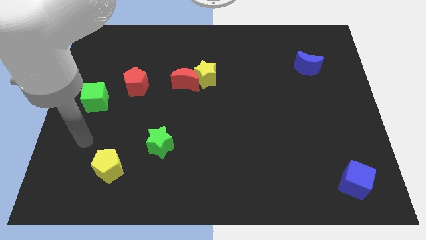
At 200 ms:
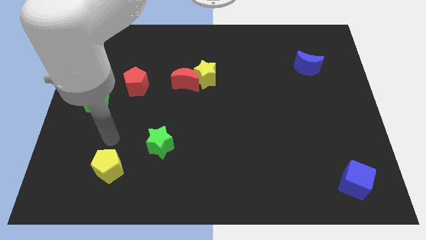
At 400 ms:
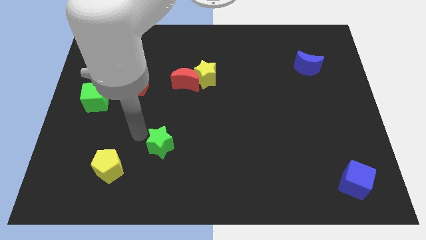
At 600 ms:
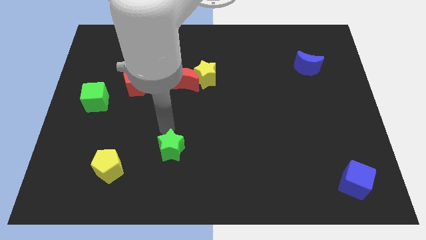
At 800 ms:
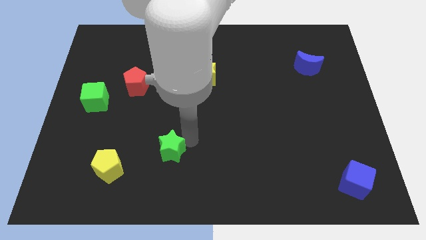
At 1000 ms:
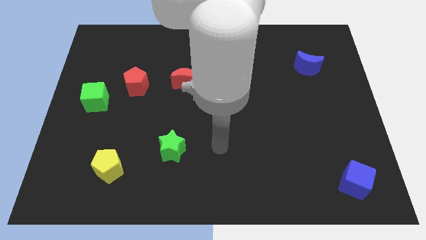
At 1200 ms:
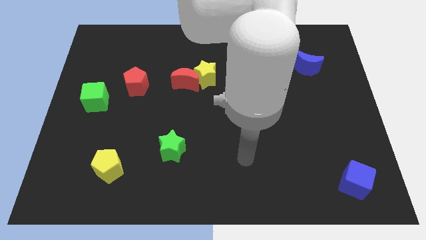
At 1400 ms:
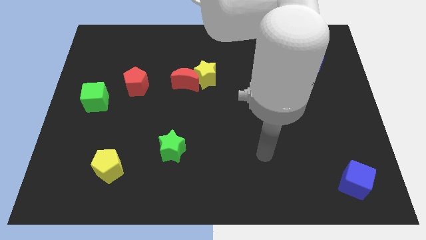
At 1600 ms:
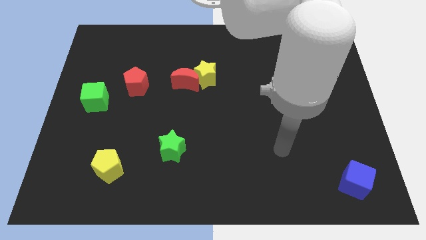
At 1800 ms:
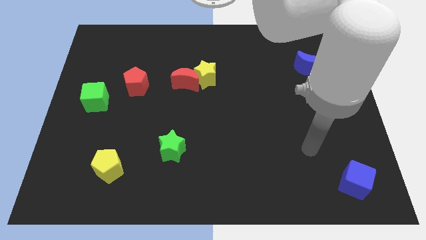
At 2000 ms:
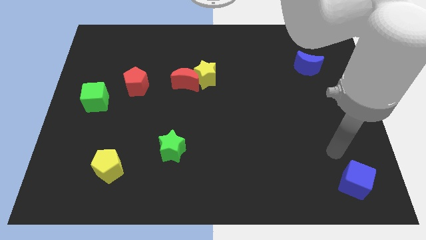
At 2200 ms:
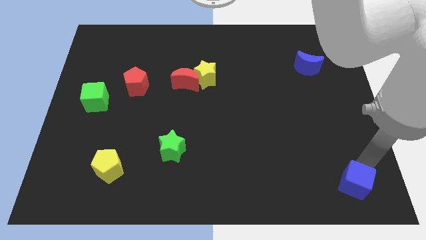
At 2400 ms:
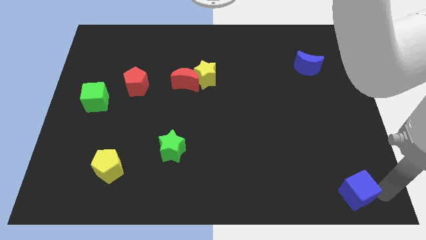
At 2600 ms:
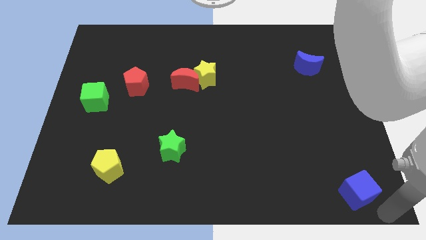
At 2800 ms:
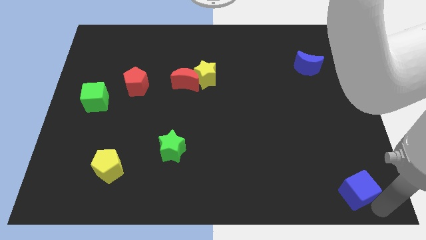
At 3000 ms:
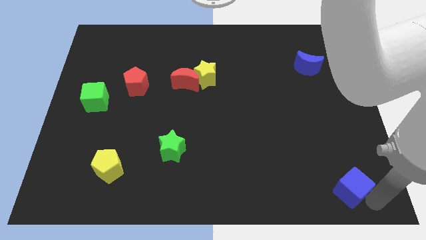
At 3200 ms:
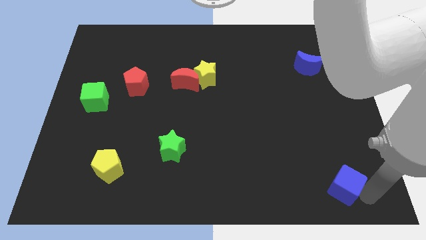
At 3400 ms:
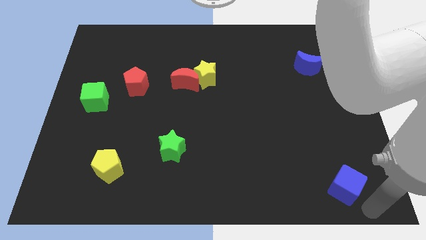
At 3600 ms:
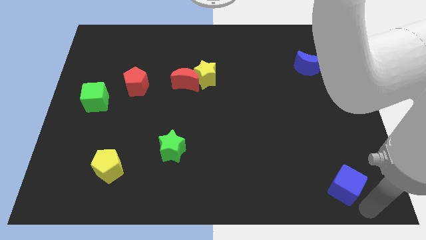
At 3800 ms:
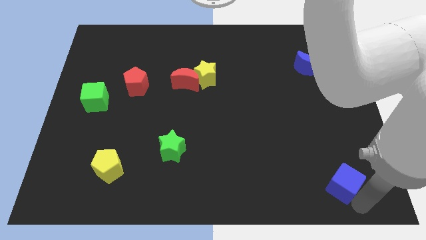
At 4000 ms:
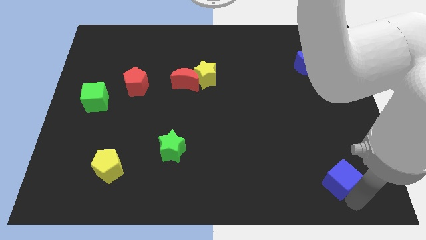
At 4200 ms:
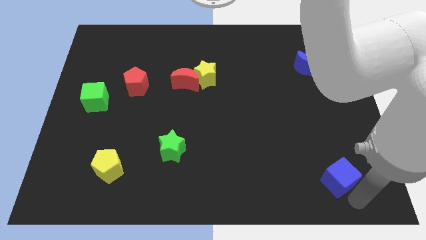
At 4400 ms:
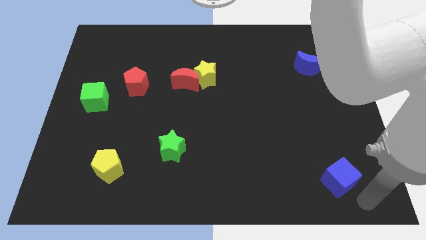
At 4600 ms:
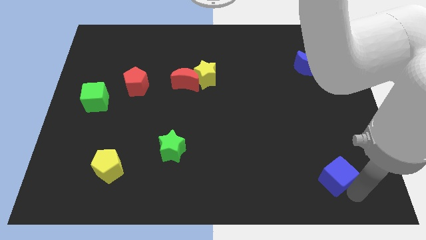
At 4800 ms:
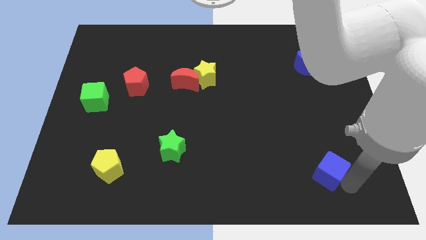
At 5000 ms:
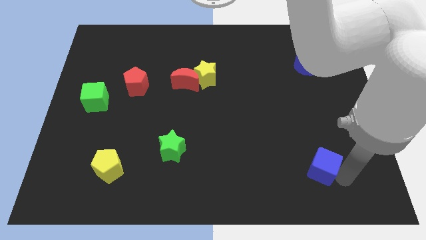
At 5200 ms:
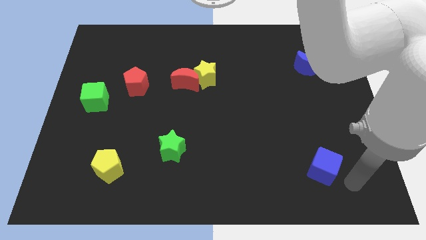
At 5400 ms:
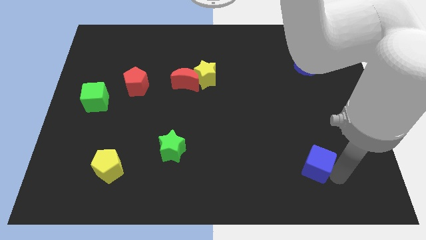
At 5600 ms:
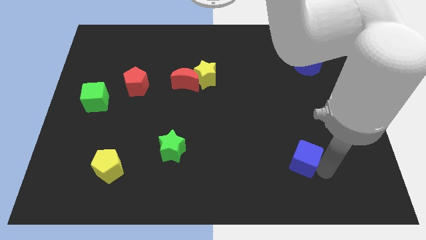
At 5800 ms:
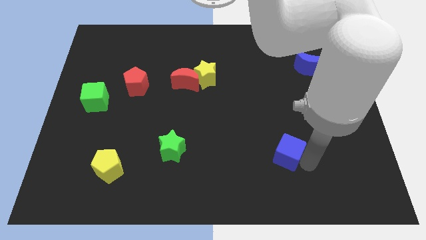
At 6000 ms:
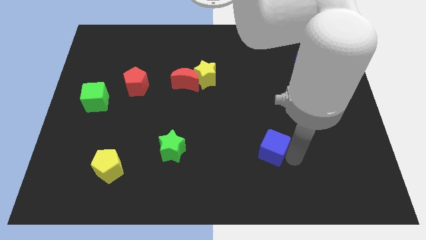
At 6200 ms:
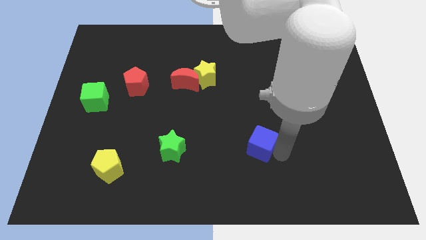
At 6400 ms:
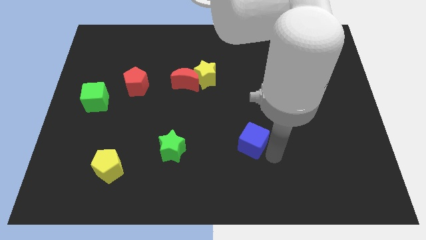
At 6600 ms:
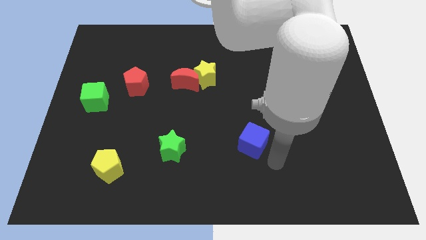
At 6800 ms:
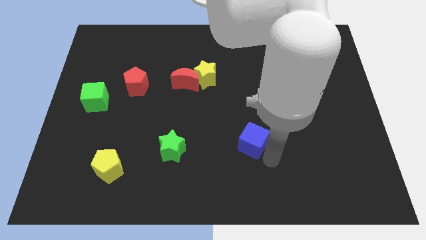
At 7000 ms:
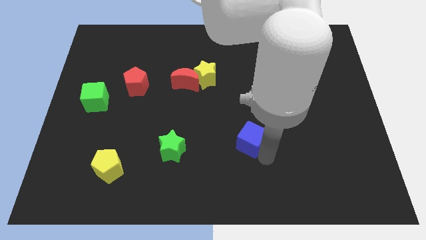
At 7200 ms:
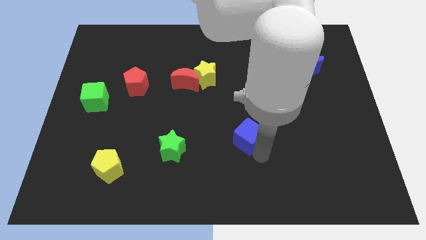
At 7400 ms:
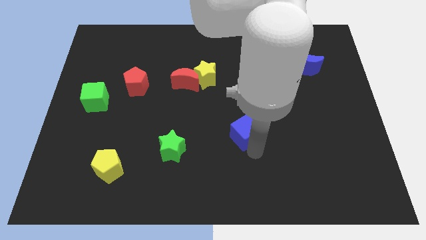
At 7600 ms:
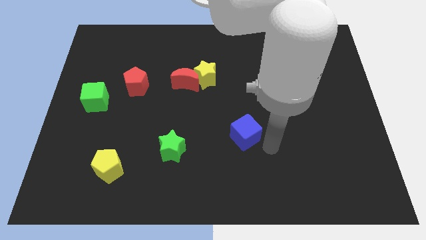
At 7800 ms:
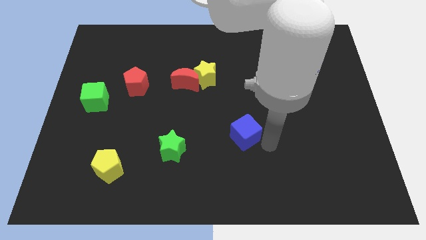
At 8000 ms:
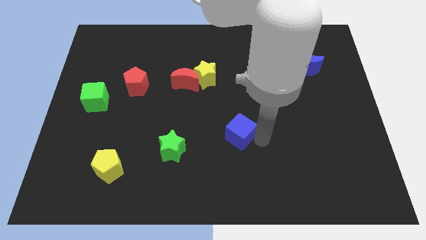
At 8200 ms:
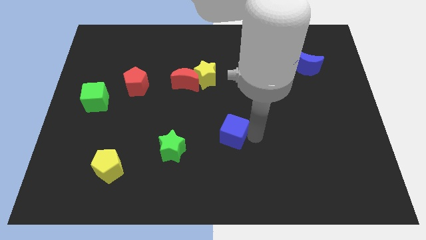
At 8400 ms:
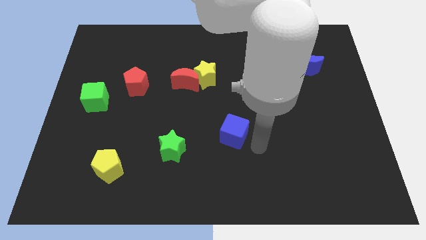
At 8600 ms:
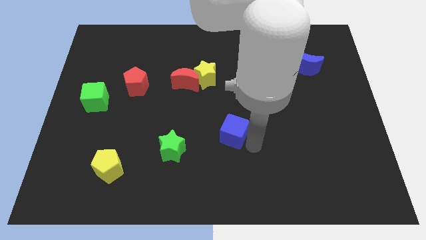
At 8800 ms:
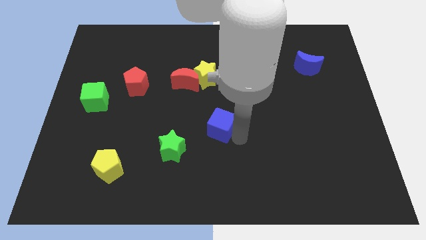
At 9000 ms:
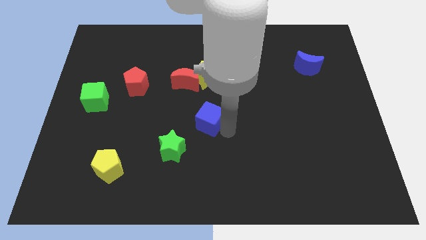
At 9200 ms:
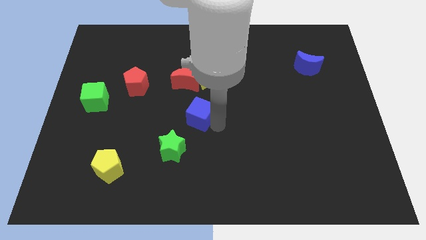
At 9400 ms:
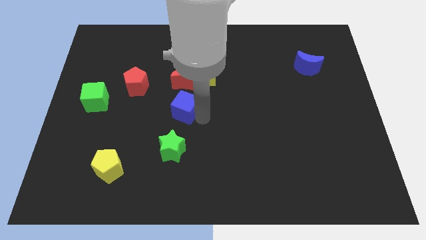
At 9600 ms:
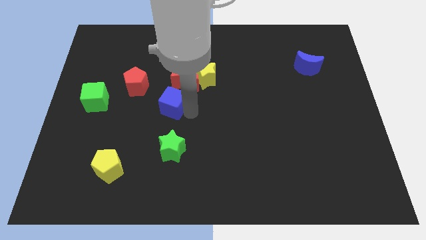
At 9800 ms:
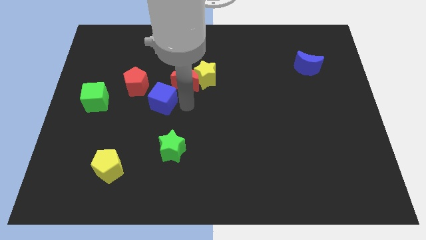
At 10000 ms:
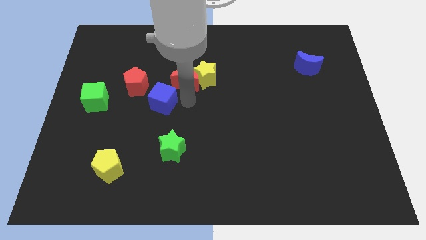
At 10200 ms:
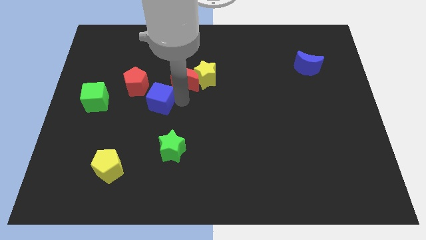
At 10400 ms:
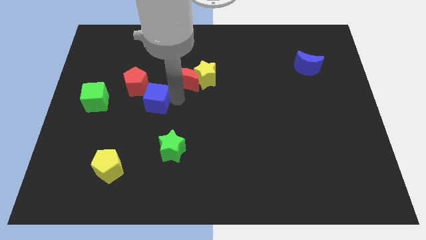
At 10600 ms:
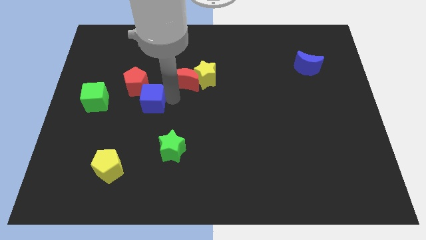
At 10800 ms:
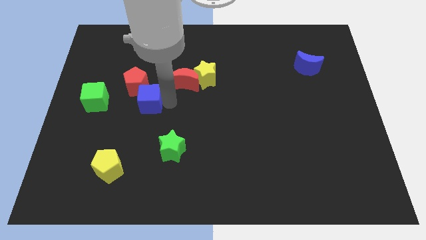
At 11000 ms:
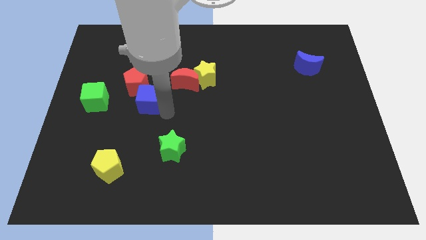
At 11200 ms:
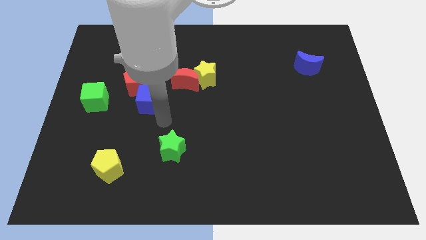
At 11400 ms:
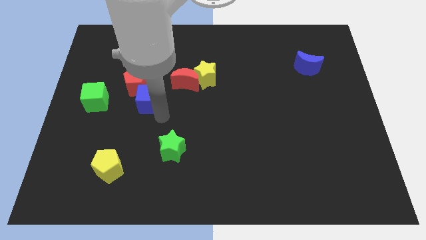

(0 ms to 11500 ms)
slide the blue cube next to the red pentagon

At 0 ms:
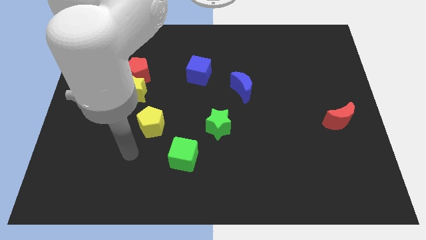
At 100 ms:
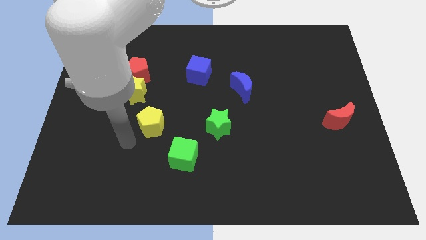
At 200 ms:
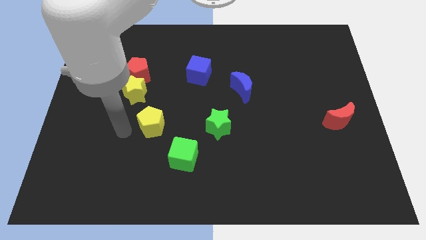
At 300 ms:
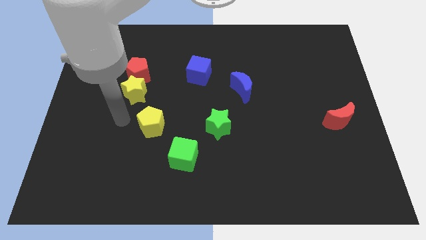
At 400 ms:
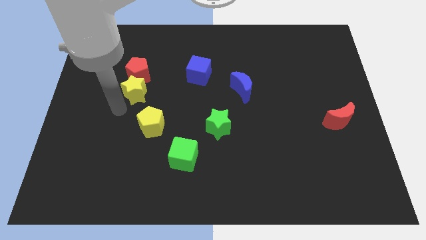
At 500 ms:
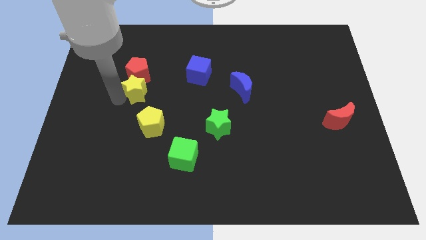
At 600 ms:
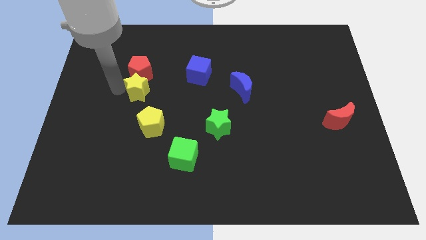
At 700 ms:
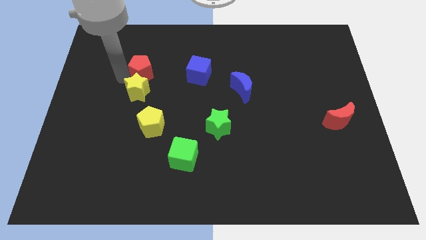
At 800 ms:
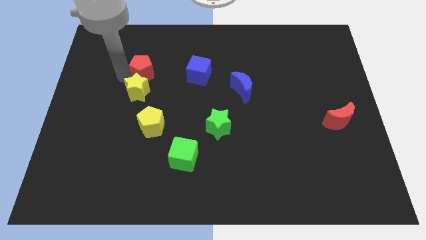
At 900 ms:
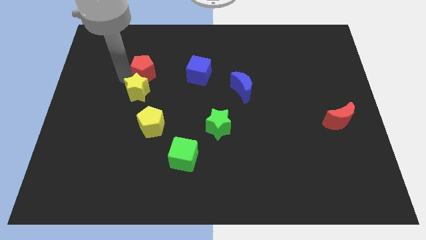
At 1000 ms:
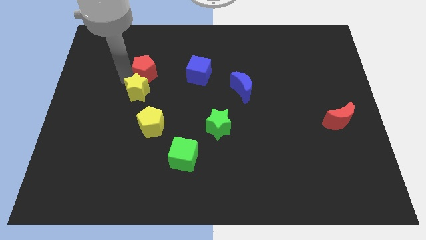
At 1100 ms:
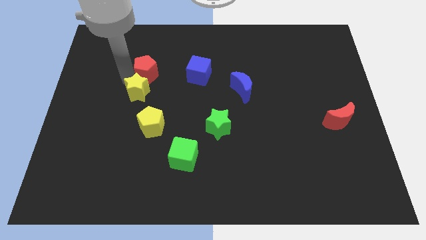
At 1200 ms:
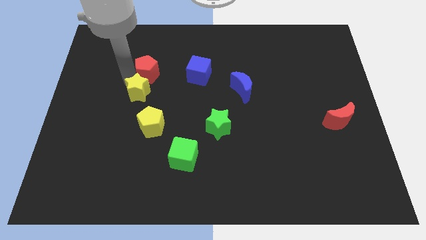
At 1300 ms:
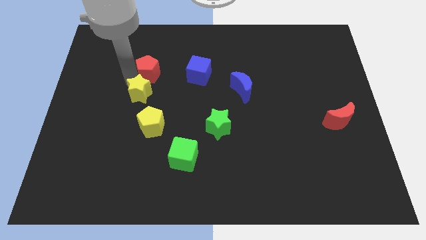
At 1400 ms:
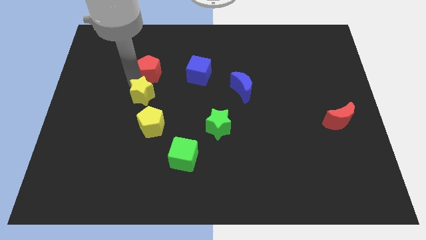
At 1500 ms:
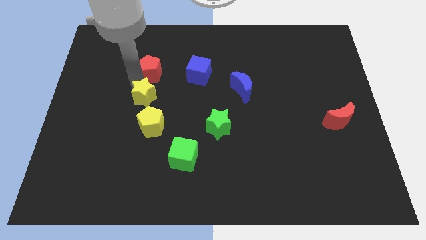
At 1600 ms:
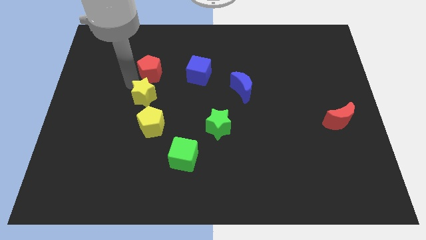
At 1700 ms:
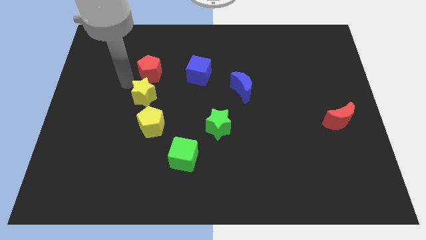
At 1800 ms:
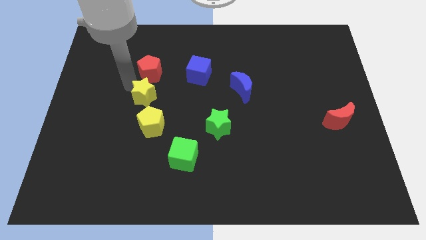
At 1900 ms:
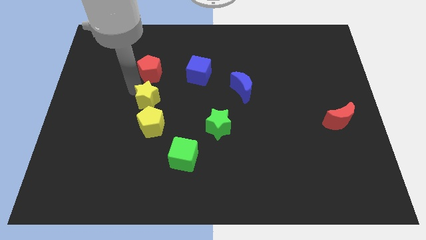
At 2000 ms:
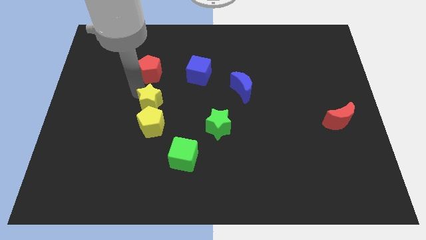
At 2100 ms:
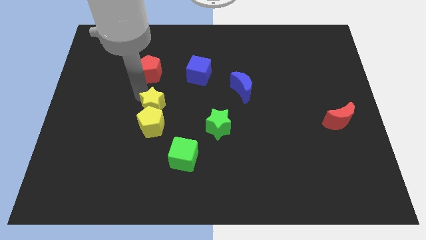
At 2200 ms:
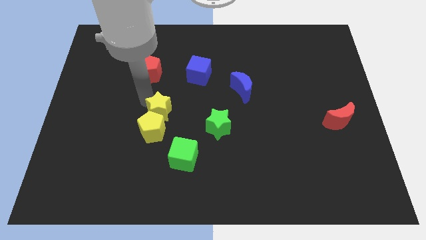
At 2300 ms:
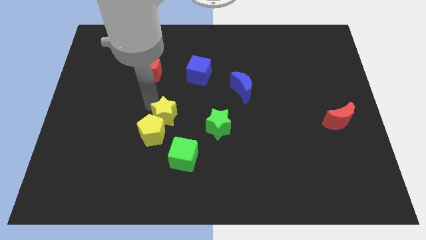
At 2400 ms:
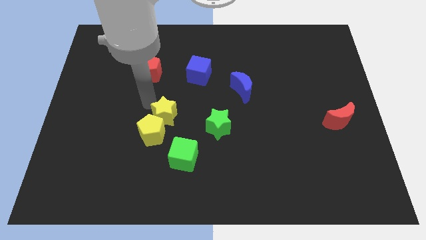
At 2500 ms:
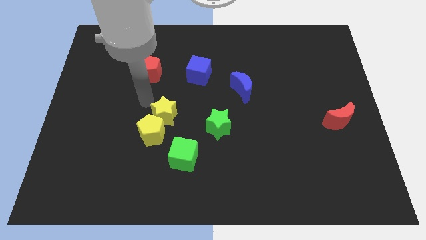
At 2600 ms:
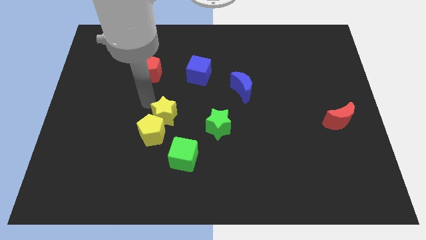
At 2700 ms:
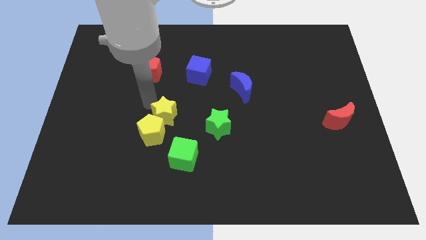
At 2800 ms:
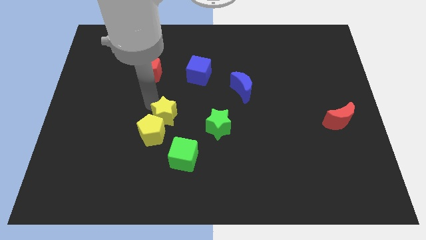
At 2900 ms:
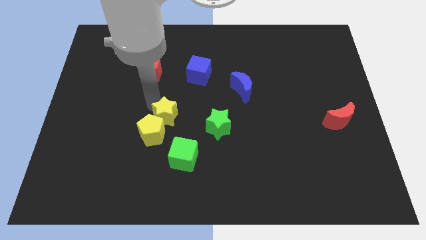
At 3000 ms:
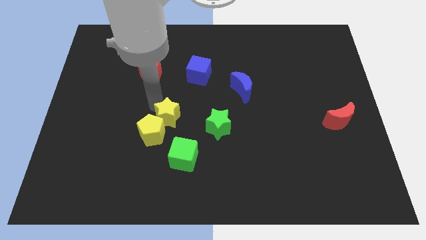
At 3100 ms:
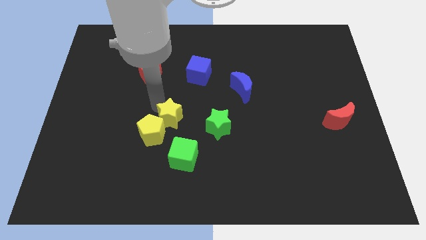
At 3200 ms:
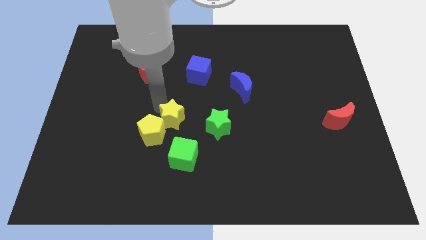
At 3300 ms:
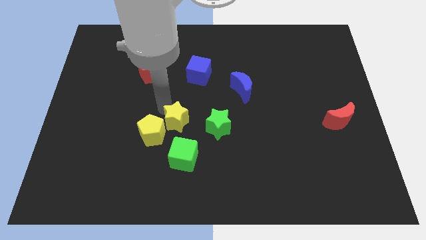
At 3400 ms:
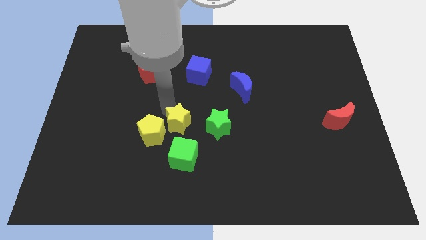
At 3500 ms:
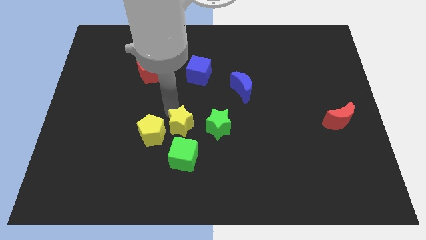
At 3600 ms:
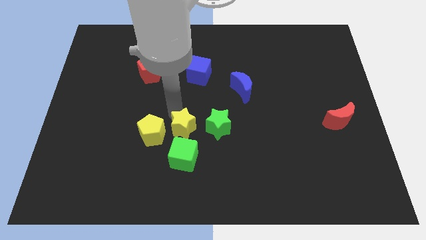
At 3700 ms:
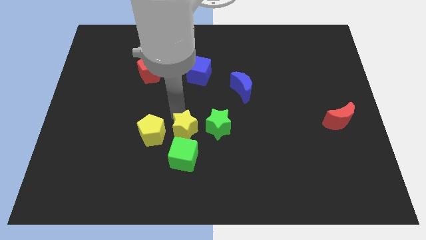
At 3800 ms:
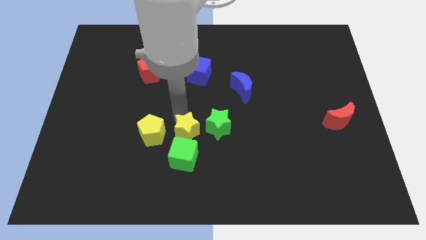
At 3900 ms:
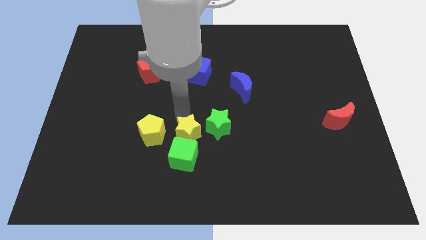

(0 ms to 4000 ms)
move the yellow star next to the green cube
